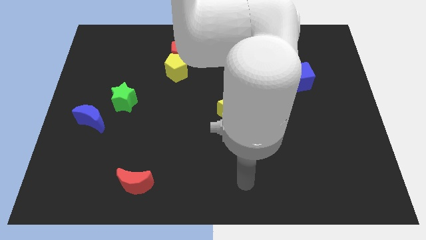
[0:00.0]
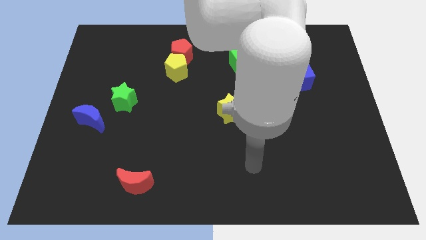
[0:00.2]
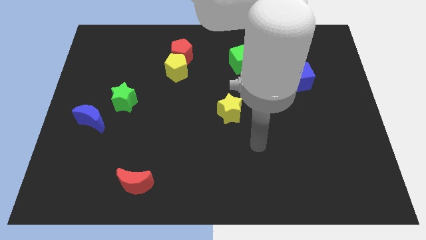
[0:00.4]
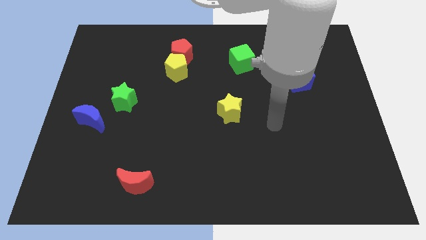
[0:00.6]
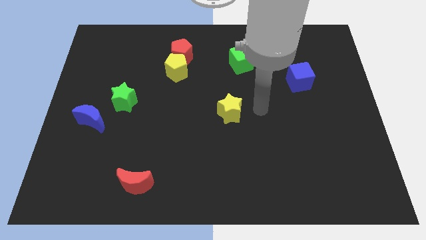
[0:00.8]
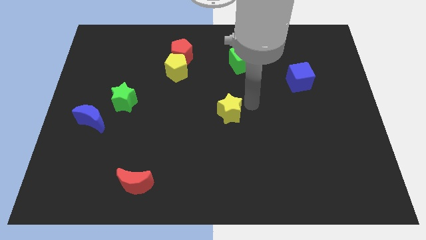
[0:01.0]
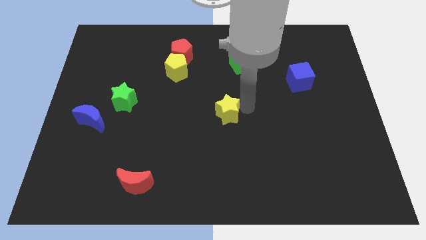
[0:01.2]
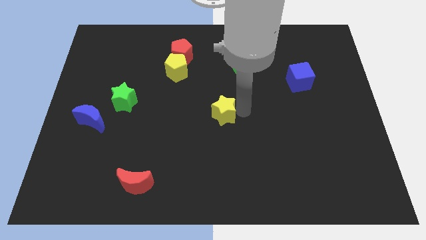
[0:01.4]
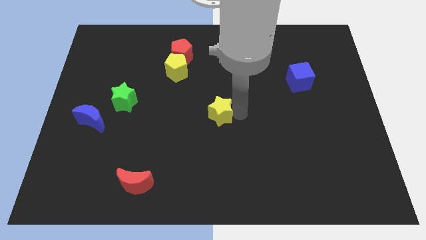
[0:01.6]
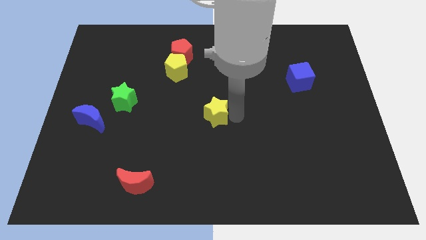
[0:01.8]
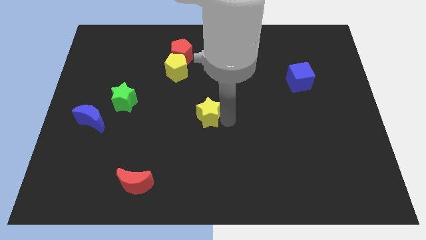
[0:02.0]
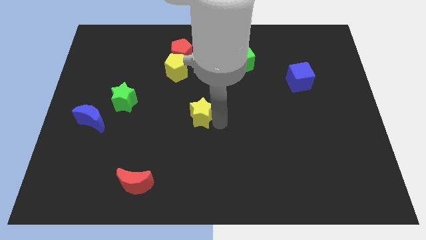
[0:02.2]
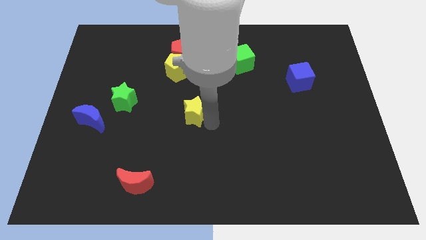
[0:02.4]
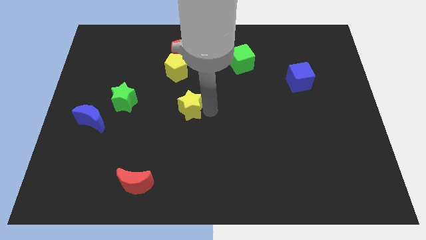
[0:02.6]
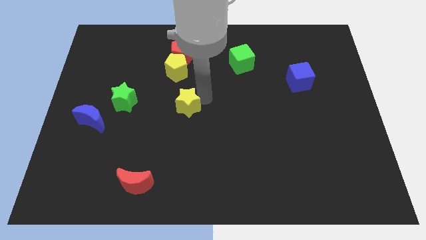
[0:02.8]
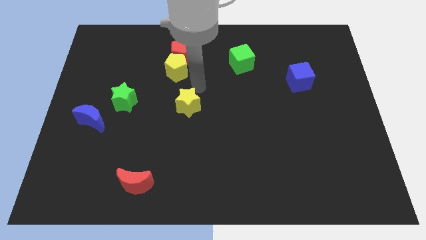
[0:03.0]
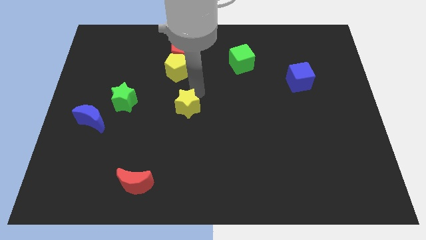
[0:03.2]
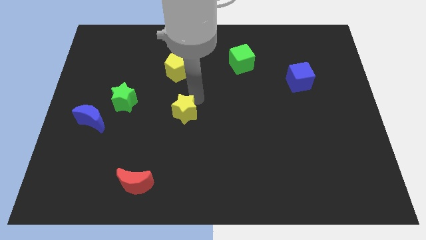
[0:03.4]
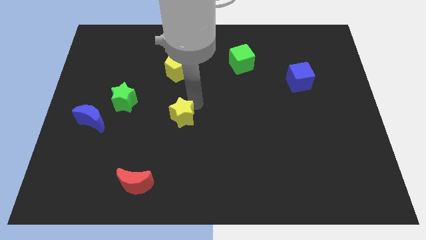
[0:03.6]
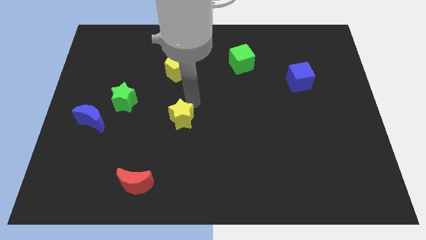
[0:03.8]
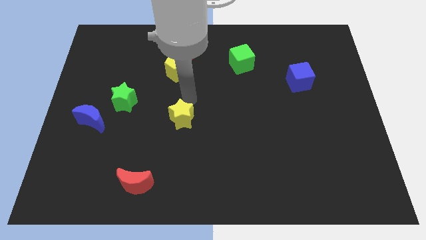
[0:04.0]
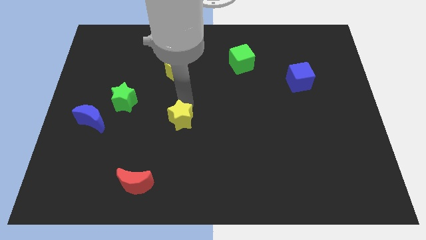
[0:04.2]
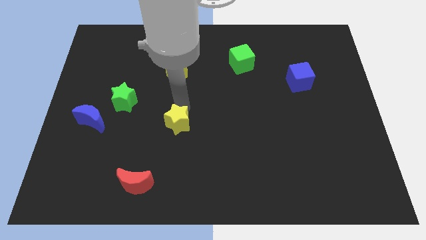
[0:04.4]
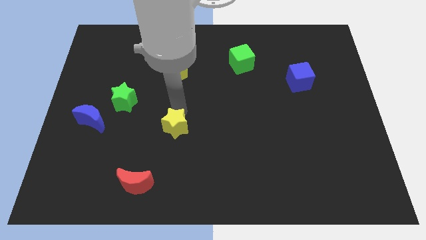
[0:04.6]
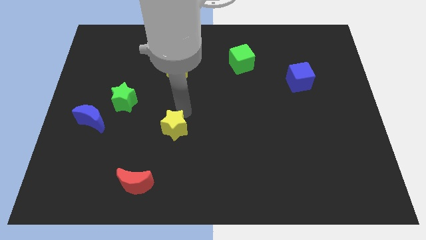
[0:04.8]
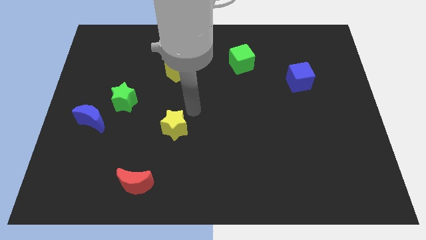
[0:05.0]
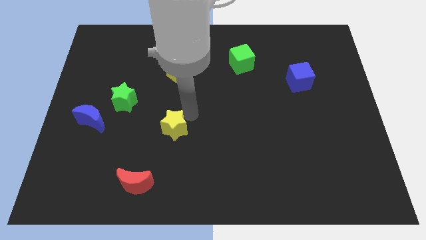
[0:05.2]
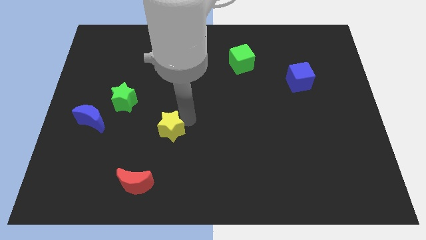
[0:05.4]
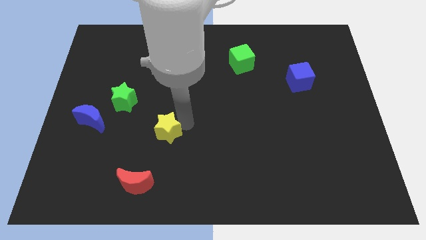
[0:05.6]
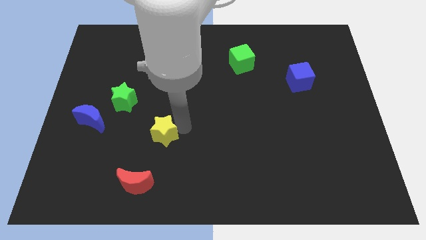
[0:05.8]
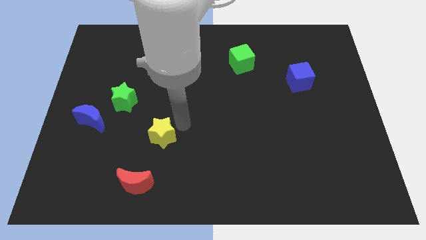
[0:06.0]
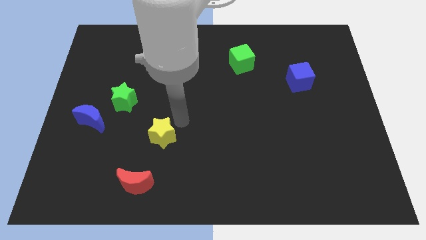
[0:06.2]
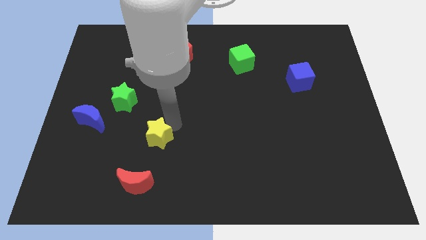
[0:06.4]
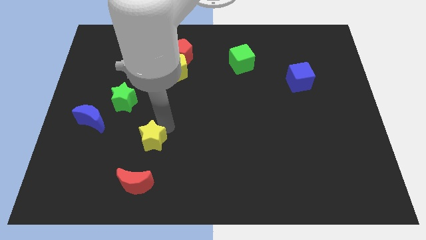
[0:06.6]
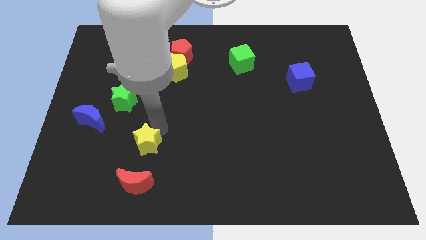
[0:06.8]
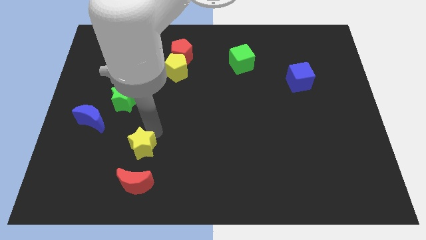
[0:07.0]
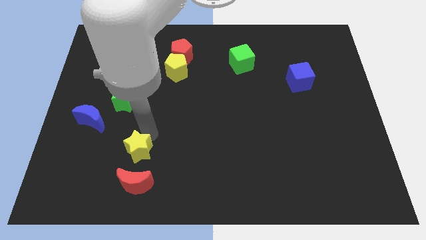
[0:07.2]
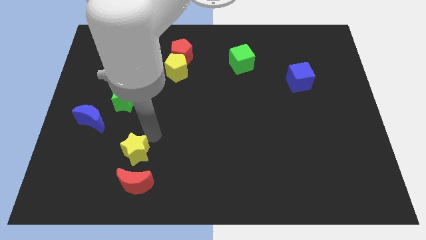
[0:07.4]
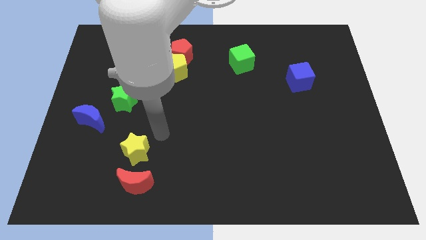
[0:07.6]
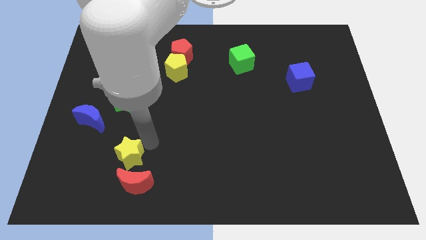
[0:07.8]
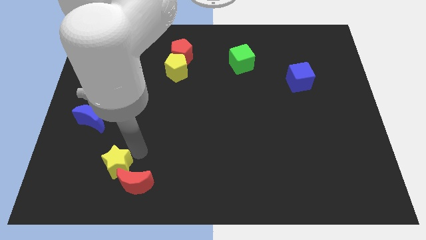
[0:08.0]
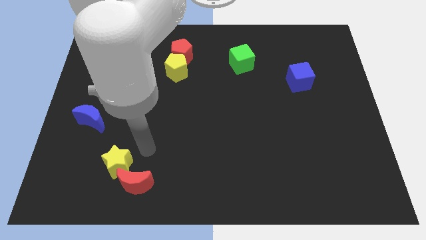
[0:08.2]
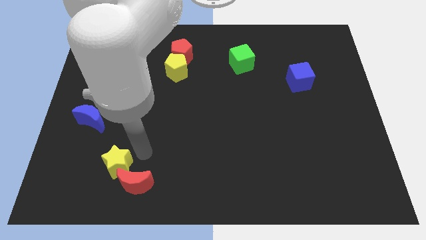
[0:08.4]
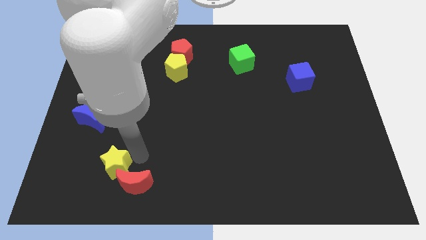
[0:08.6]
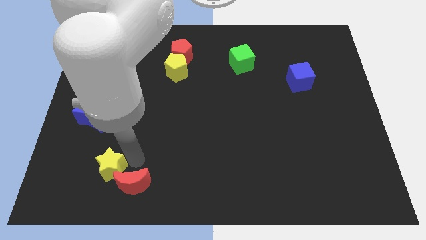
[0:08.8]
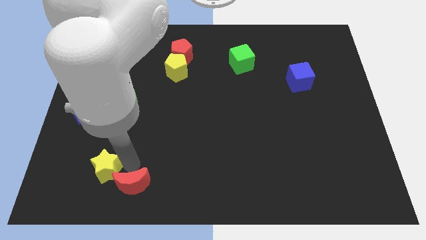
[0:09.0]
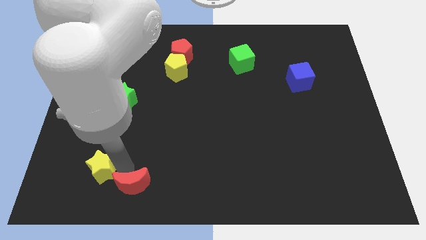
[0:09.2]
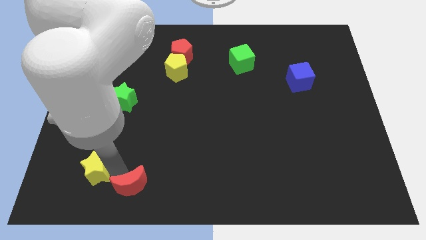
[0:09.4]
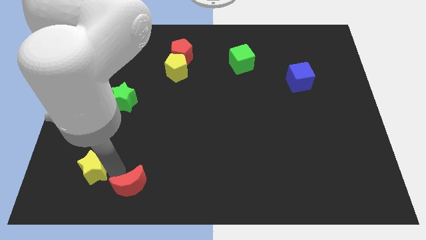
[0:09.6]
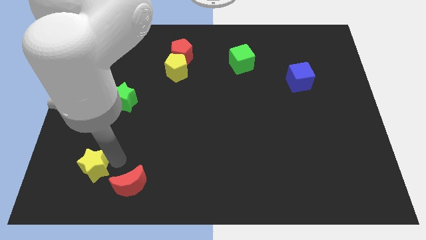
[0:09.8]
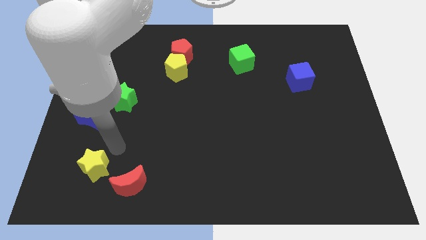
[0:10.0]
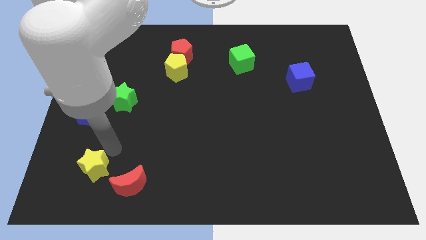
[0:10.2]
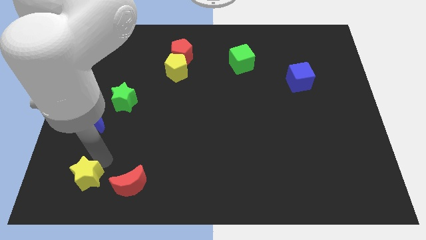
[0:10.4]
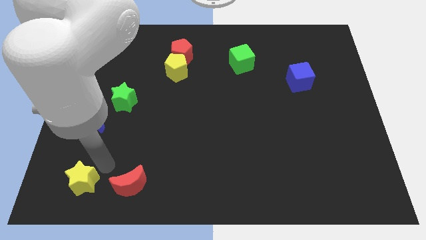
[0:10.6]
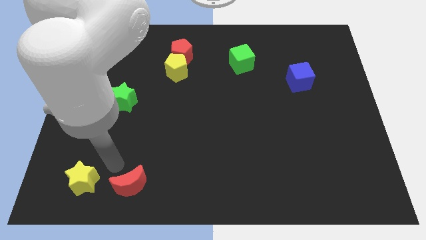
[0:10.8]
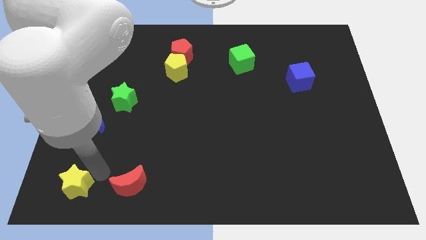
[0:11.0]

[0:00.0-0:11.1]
move the yellow star to the bottom left

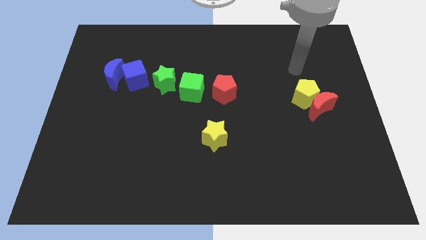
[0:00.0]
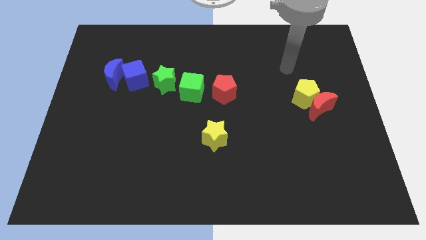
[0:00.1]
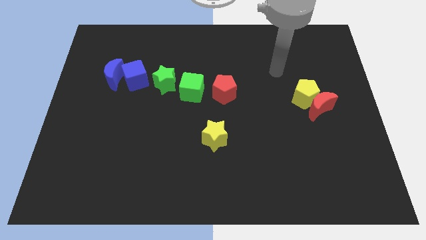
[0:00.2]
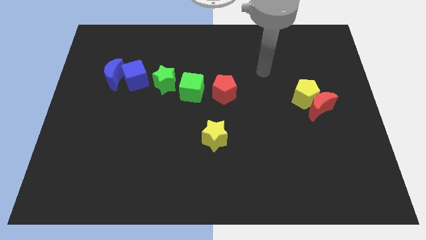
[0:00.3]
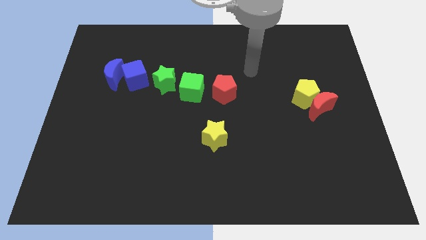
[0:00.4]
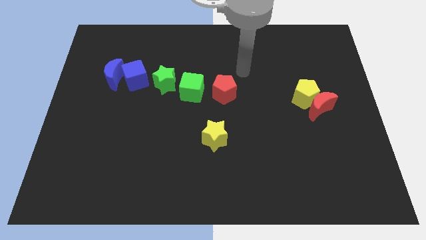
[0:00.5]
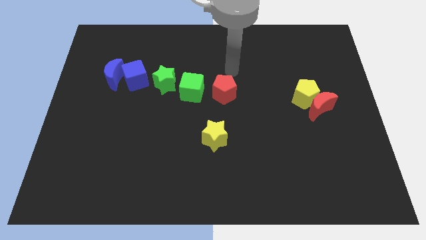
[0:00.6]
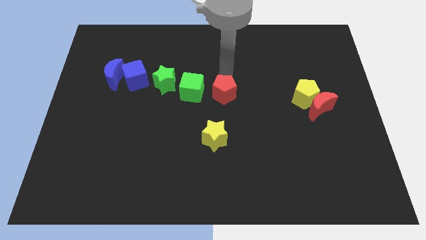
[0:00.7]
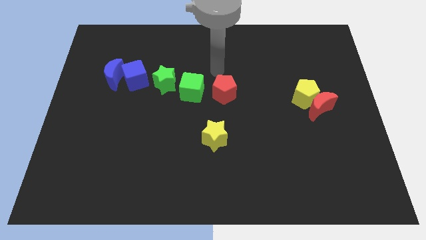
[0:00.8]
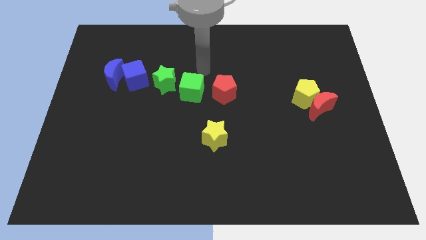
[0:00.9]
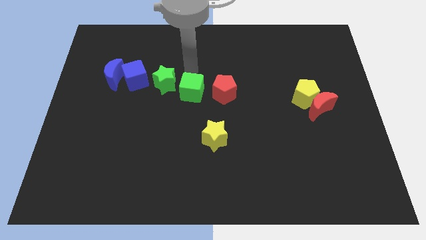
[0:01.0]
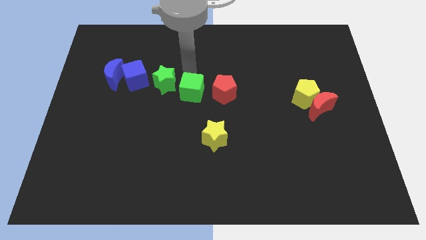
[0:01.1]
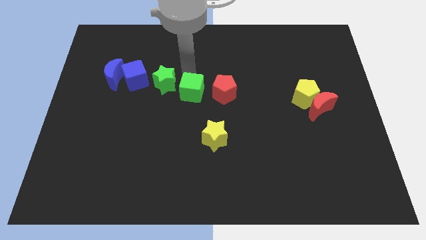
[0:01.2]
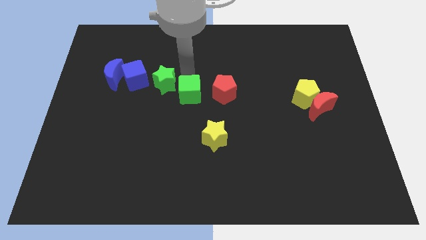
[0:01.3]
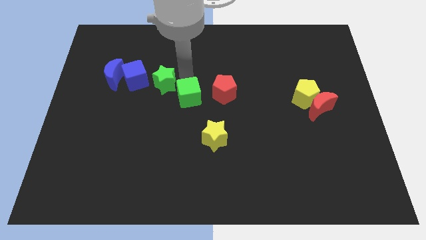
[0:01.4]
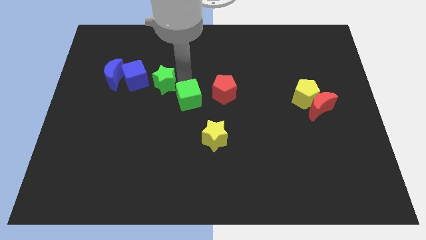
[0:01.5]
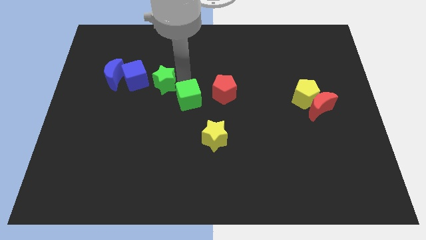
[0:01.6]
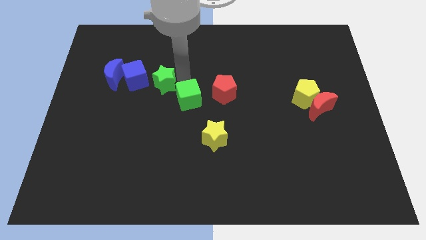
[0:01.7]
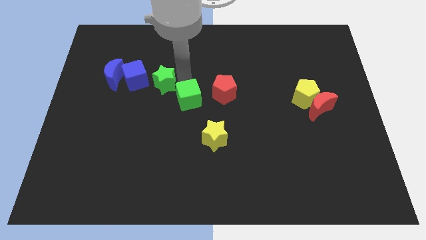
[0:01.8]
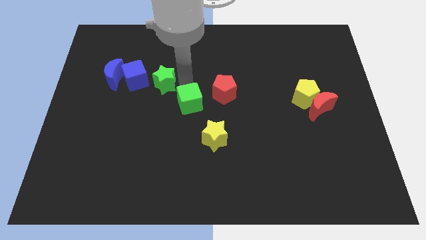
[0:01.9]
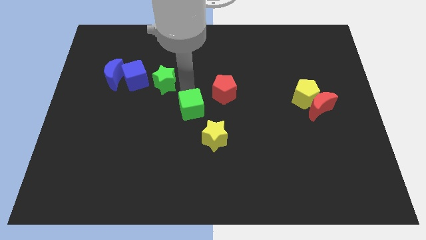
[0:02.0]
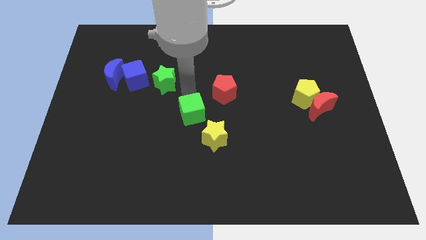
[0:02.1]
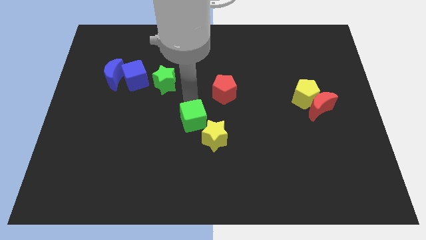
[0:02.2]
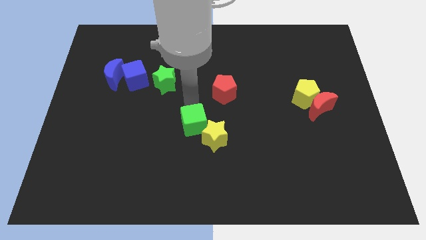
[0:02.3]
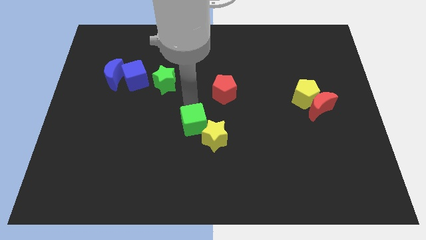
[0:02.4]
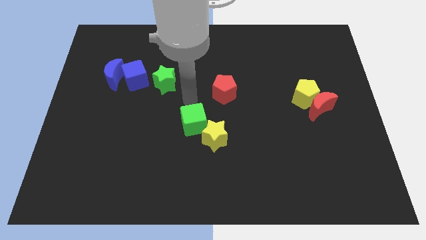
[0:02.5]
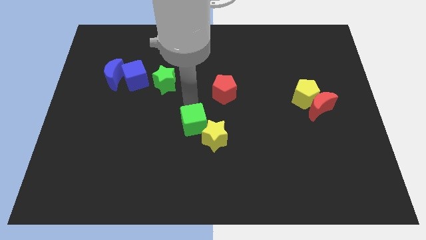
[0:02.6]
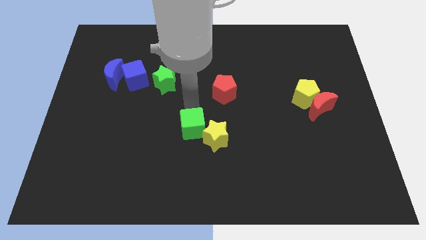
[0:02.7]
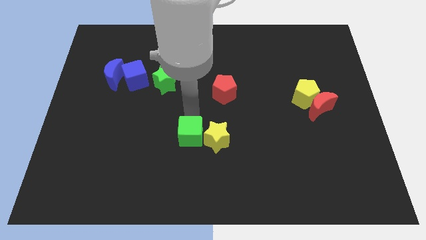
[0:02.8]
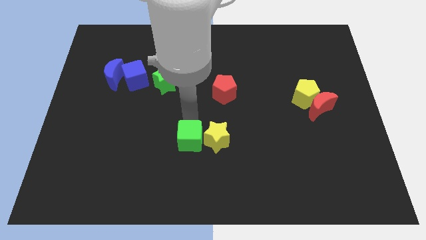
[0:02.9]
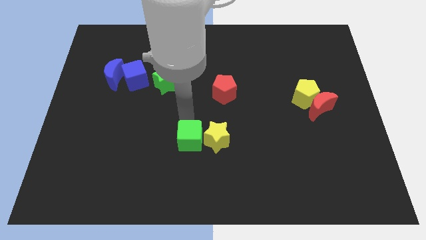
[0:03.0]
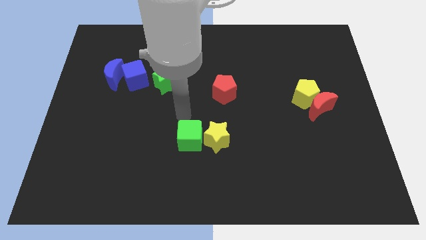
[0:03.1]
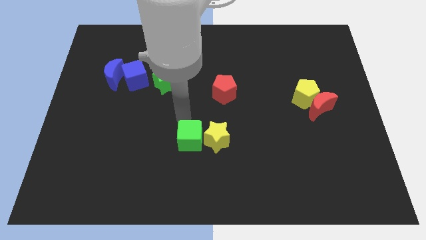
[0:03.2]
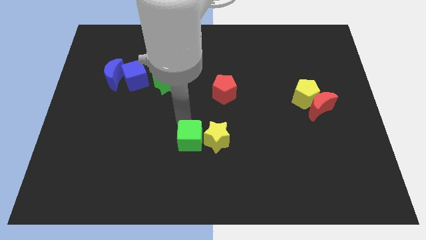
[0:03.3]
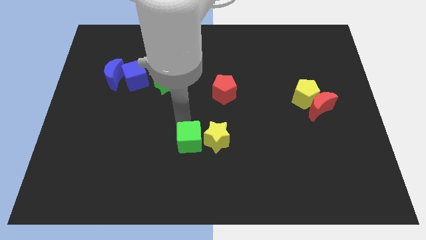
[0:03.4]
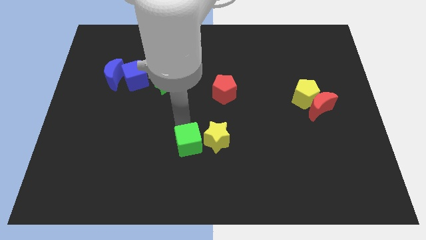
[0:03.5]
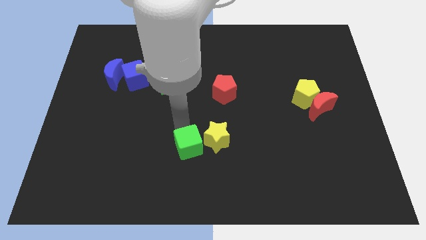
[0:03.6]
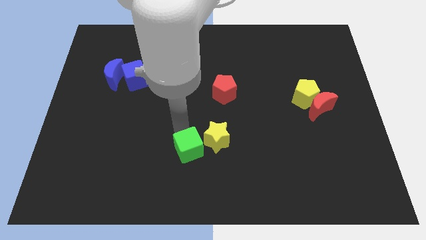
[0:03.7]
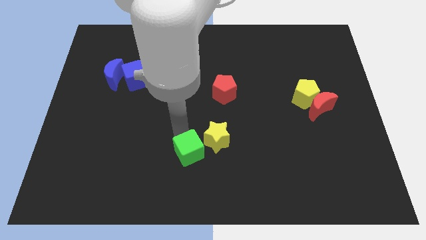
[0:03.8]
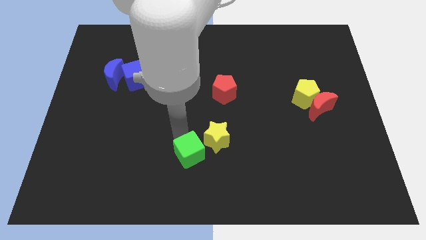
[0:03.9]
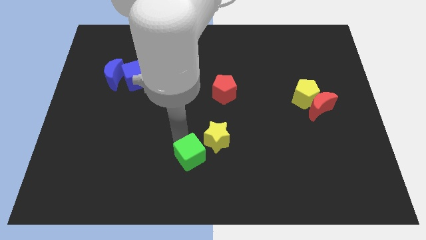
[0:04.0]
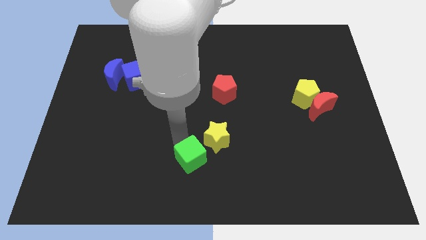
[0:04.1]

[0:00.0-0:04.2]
slide the green cube to the bottom
